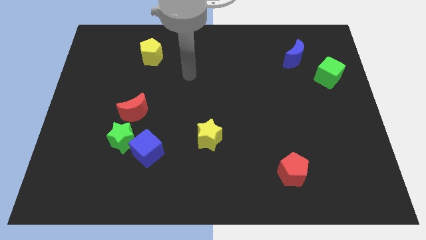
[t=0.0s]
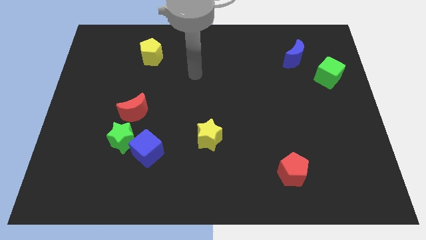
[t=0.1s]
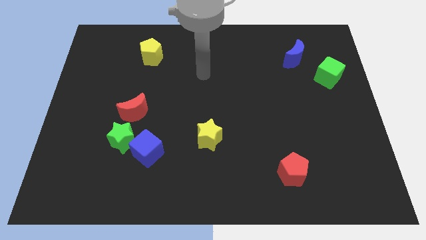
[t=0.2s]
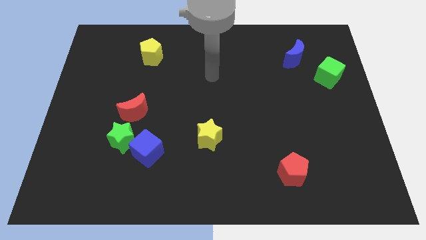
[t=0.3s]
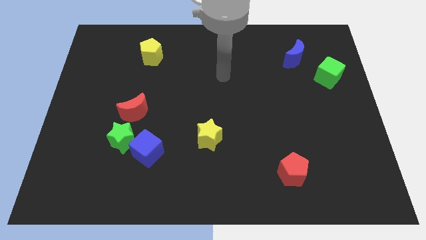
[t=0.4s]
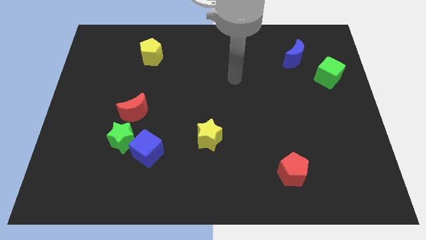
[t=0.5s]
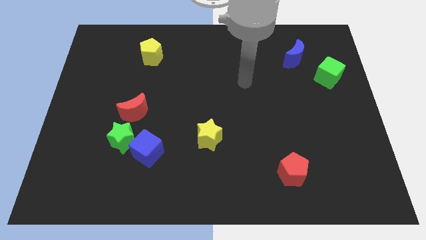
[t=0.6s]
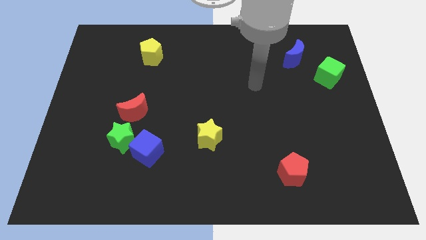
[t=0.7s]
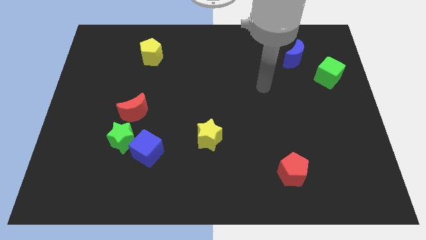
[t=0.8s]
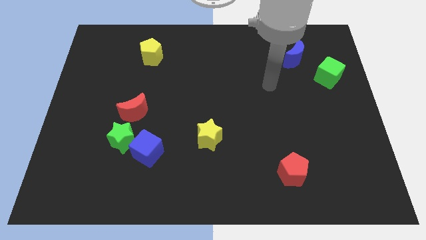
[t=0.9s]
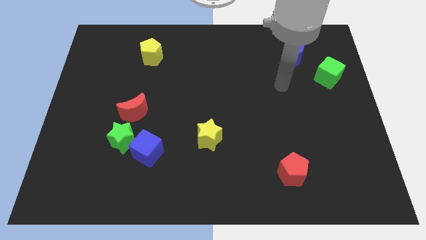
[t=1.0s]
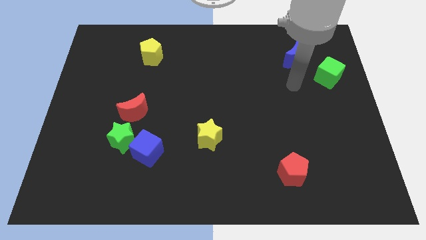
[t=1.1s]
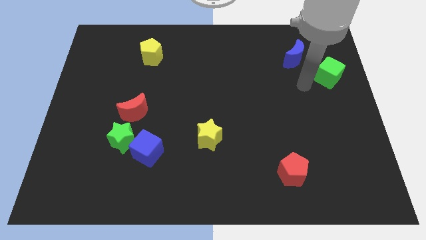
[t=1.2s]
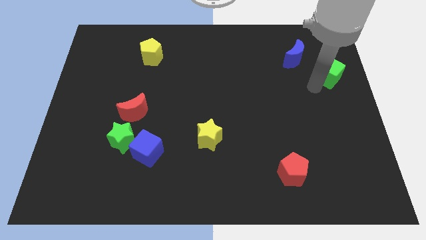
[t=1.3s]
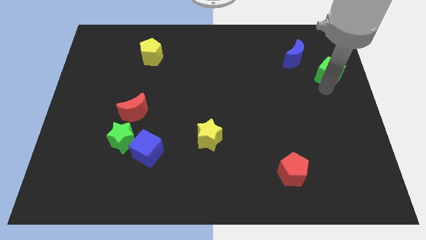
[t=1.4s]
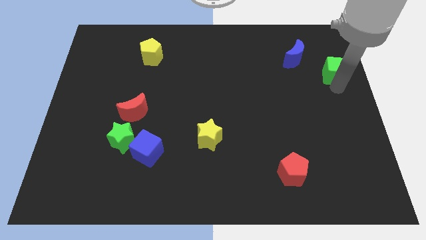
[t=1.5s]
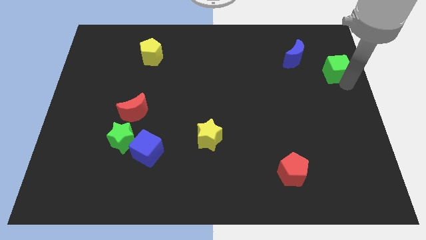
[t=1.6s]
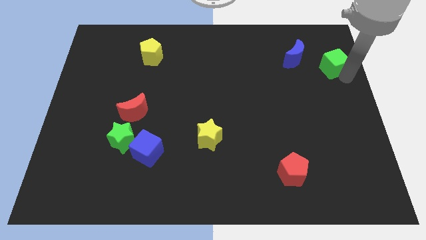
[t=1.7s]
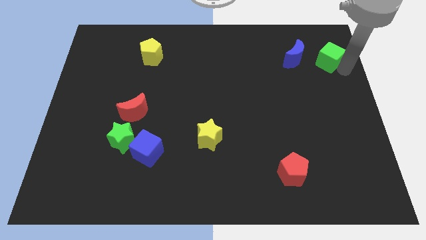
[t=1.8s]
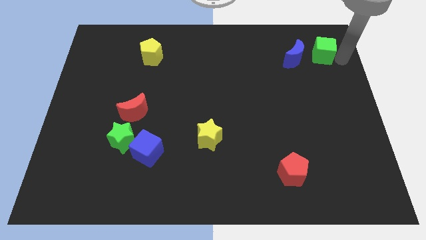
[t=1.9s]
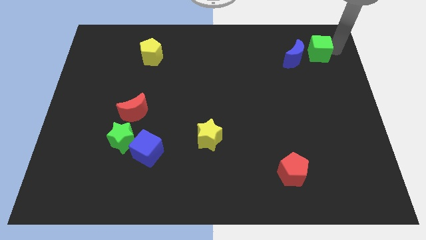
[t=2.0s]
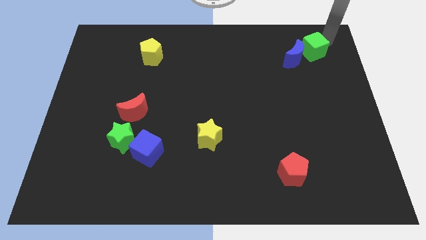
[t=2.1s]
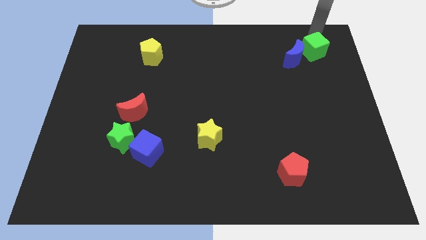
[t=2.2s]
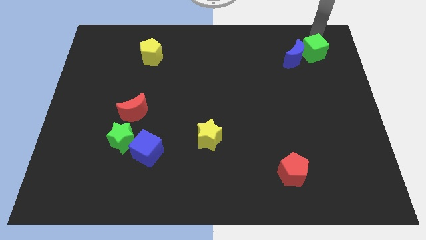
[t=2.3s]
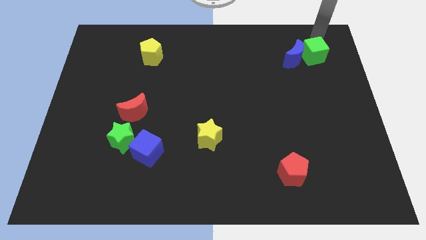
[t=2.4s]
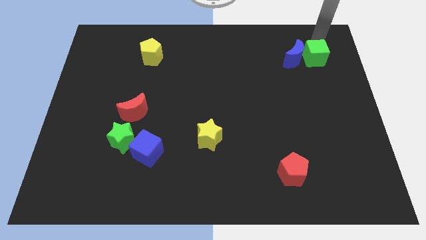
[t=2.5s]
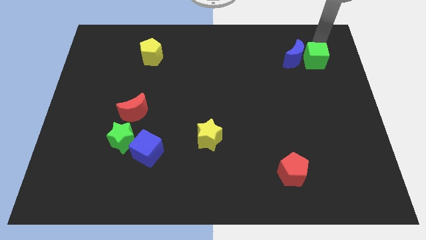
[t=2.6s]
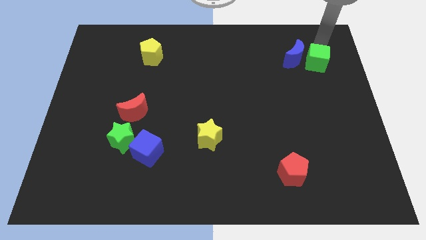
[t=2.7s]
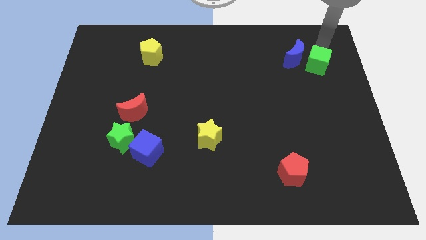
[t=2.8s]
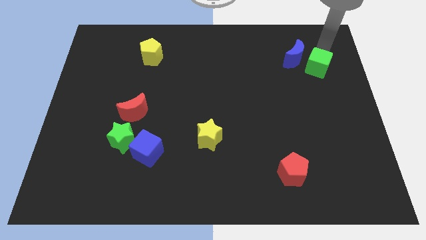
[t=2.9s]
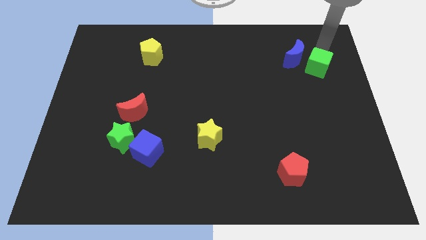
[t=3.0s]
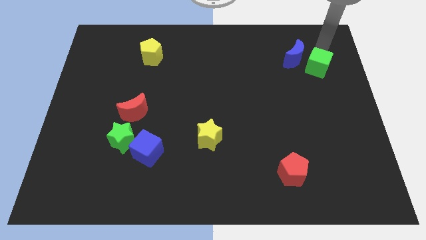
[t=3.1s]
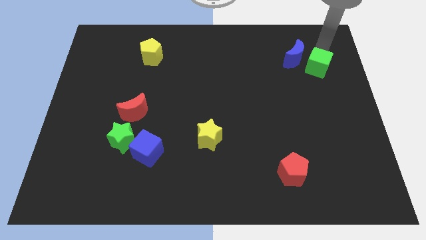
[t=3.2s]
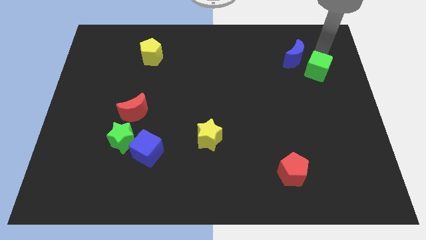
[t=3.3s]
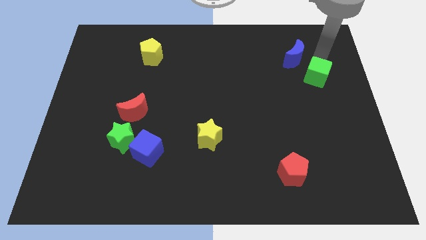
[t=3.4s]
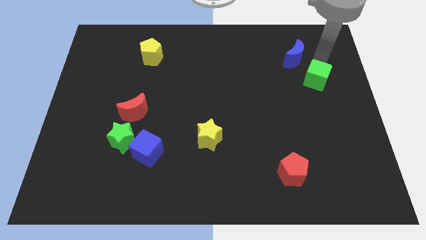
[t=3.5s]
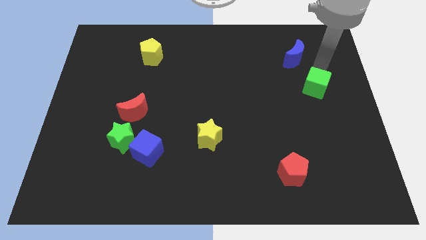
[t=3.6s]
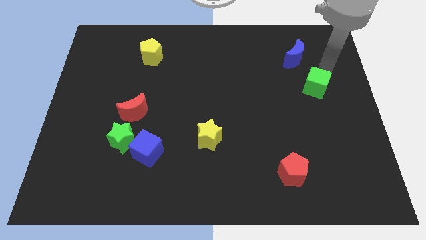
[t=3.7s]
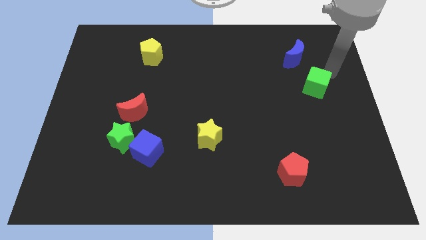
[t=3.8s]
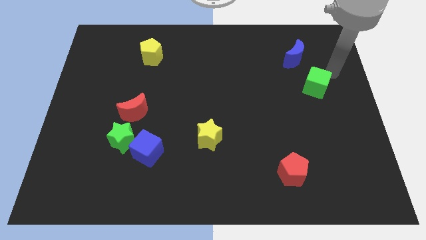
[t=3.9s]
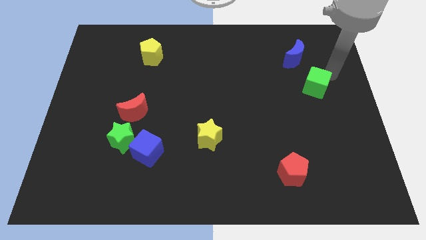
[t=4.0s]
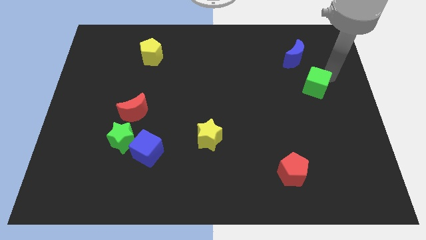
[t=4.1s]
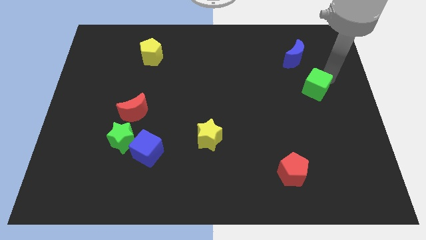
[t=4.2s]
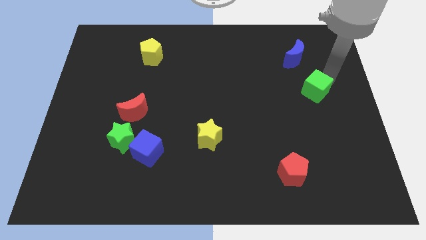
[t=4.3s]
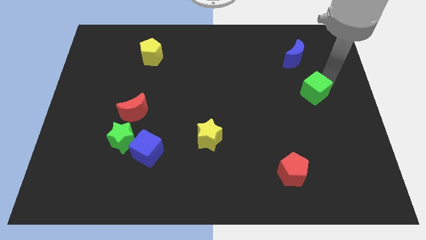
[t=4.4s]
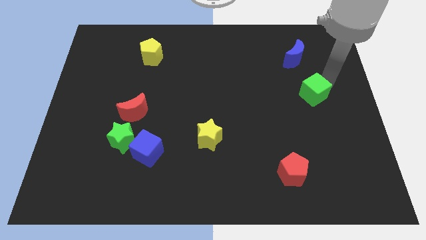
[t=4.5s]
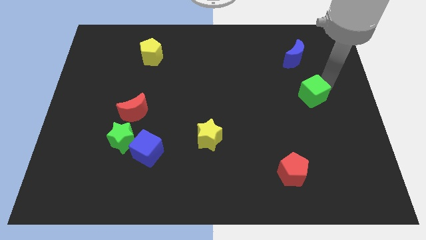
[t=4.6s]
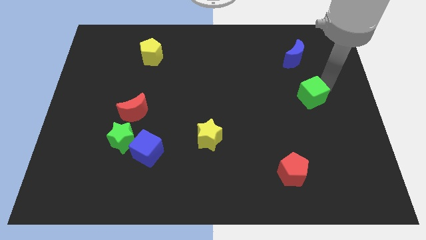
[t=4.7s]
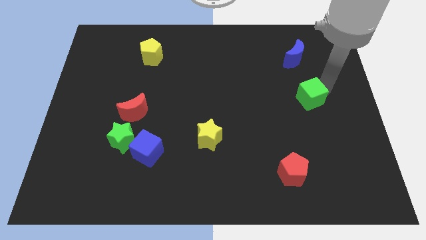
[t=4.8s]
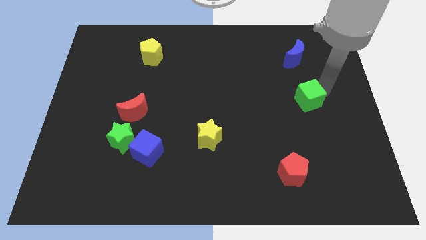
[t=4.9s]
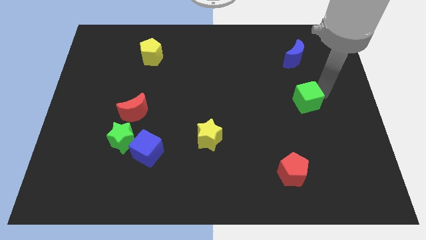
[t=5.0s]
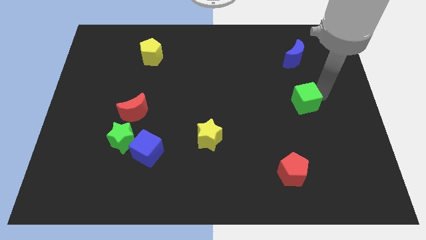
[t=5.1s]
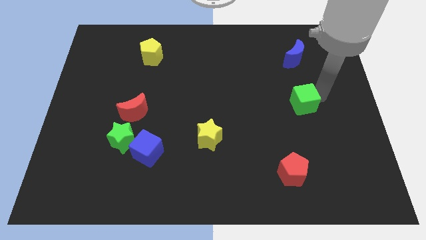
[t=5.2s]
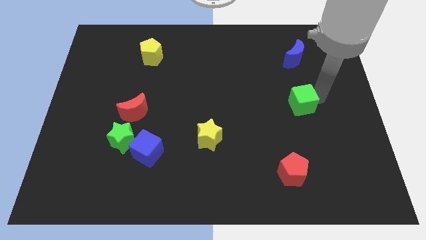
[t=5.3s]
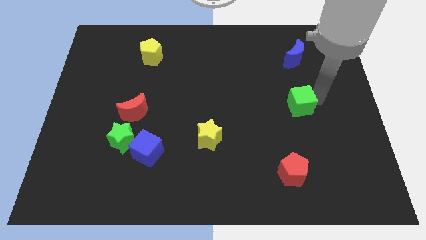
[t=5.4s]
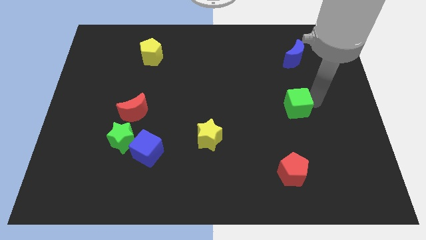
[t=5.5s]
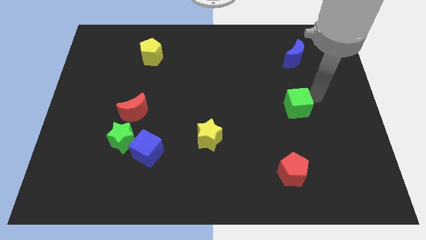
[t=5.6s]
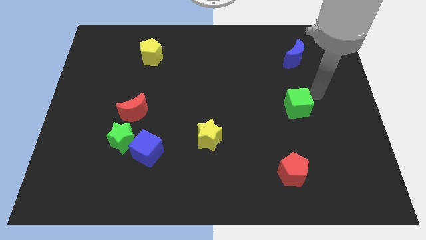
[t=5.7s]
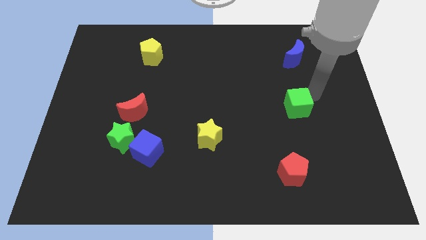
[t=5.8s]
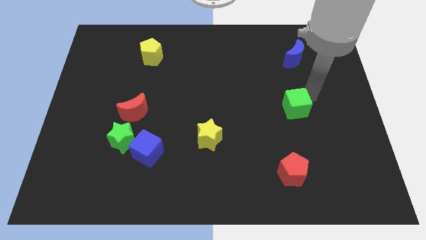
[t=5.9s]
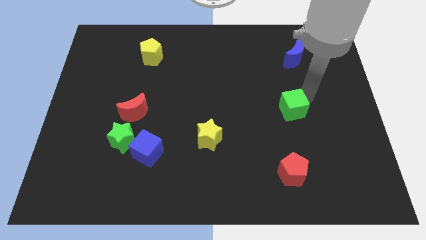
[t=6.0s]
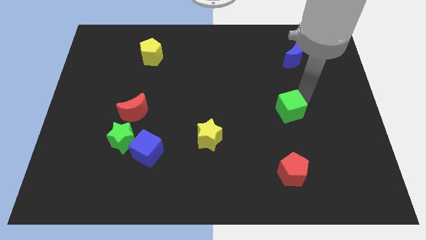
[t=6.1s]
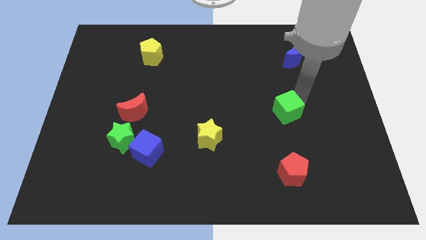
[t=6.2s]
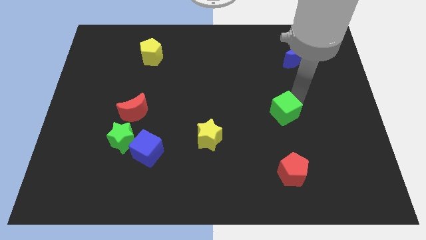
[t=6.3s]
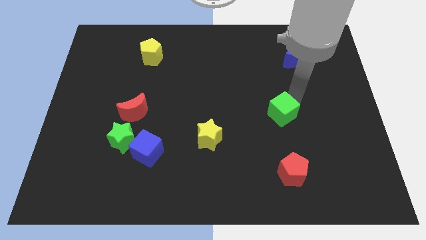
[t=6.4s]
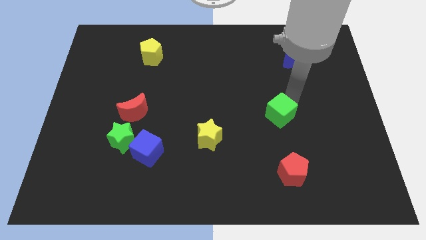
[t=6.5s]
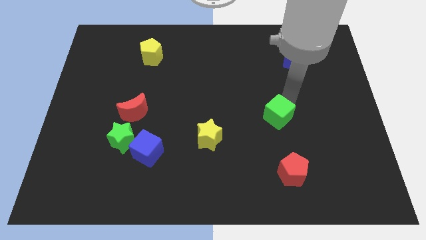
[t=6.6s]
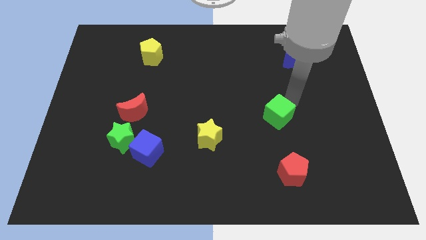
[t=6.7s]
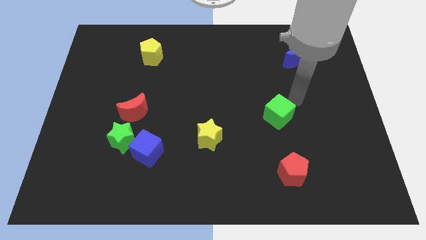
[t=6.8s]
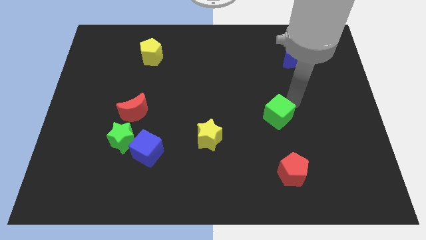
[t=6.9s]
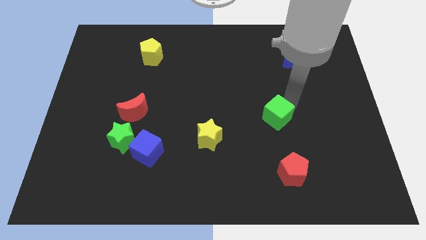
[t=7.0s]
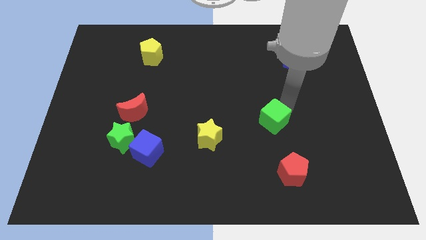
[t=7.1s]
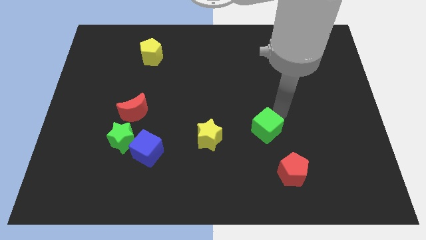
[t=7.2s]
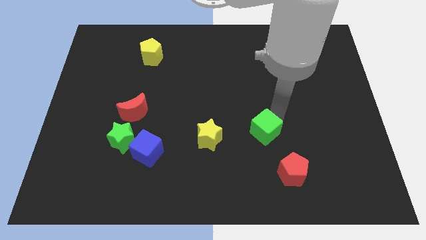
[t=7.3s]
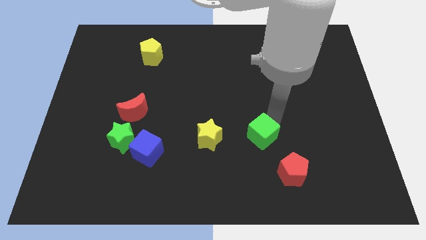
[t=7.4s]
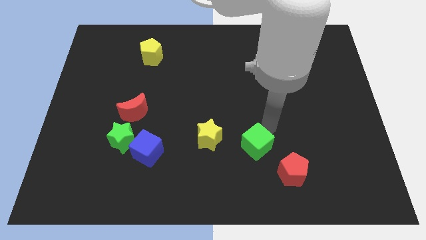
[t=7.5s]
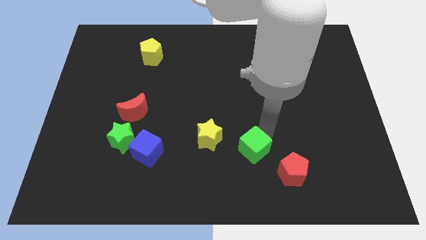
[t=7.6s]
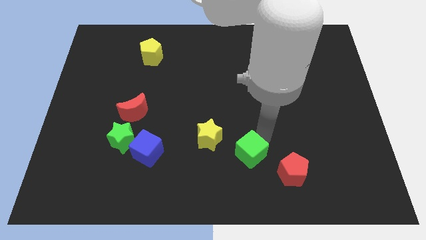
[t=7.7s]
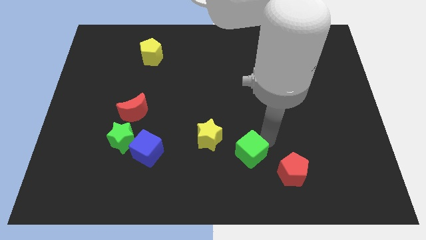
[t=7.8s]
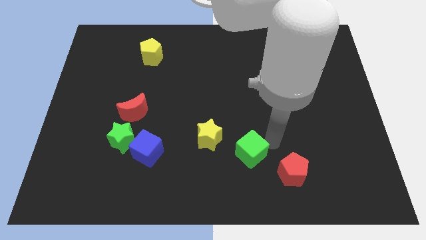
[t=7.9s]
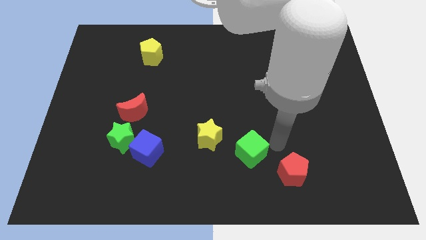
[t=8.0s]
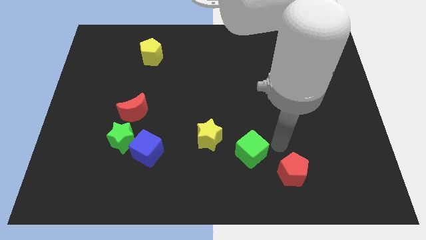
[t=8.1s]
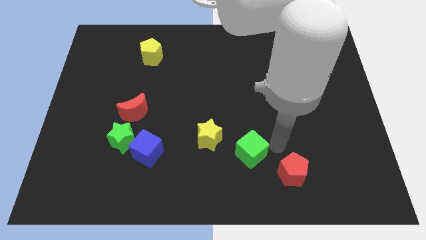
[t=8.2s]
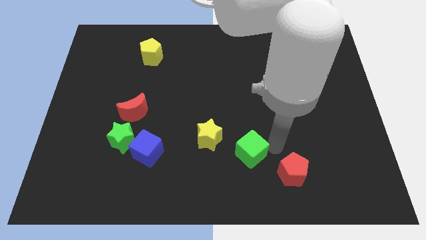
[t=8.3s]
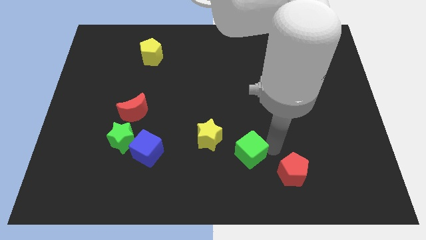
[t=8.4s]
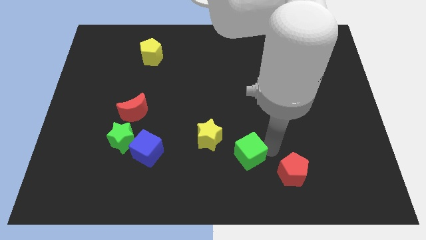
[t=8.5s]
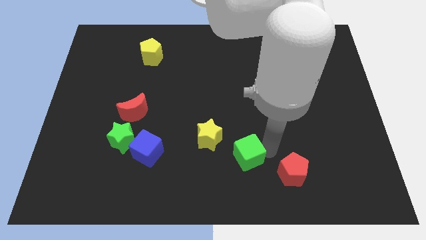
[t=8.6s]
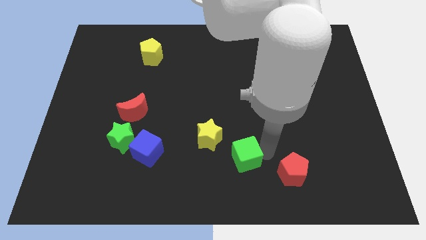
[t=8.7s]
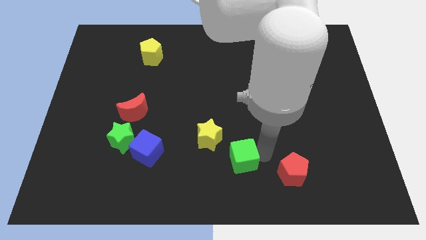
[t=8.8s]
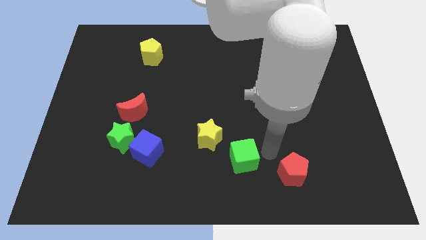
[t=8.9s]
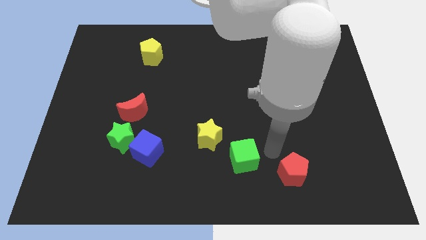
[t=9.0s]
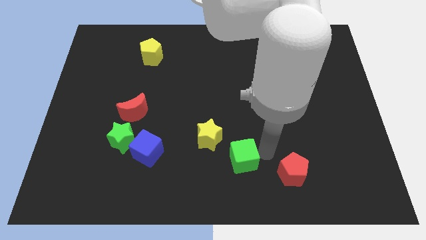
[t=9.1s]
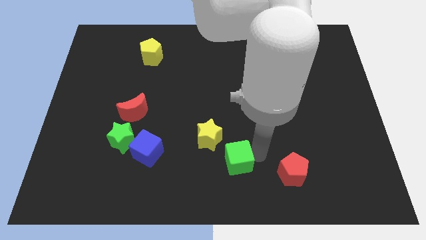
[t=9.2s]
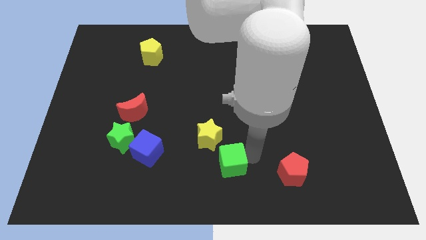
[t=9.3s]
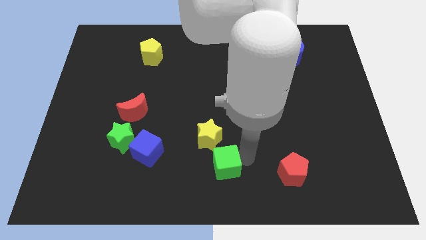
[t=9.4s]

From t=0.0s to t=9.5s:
slide the green cube below the yellow star
